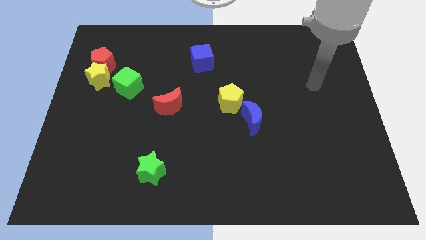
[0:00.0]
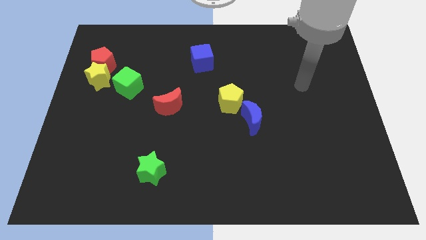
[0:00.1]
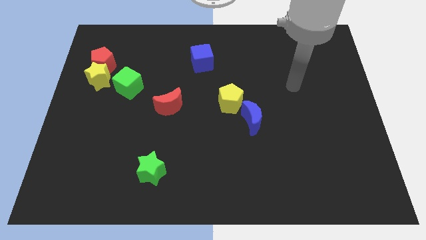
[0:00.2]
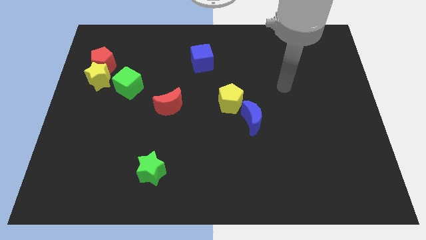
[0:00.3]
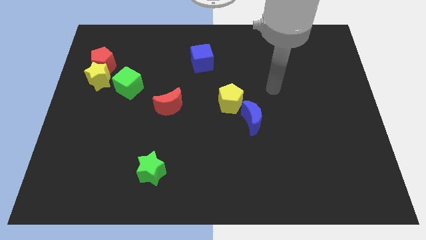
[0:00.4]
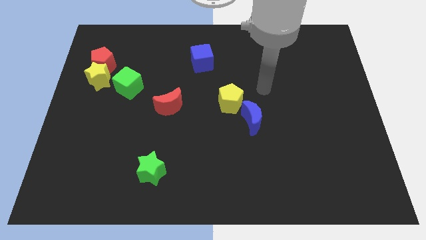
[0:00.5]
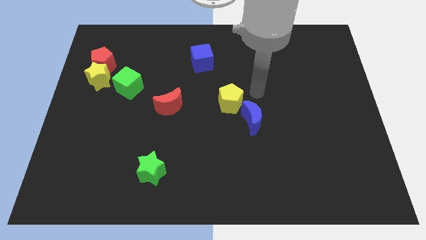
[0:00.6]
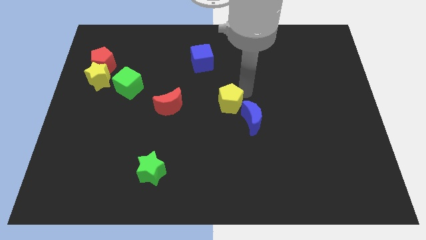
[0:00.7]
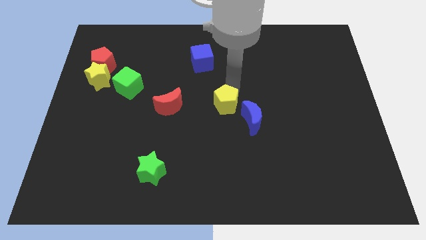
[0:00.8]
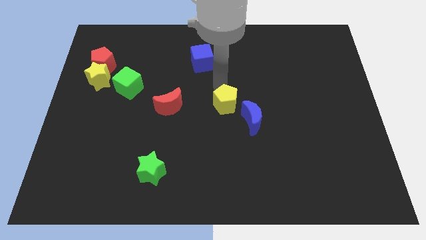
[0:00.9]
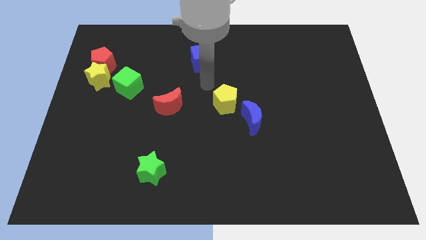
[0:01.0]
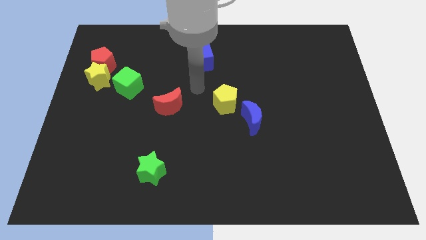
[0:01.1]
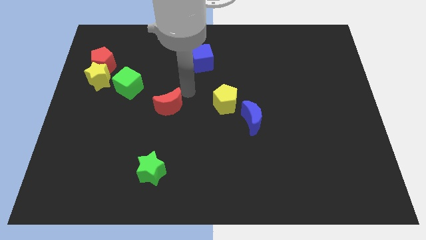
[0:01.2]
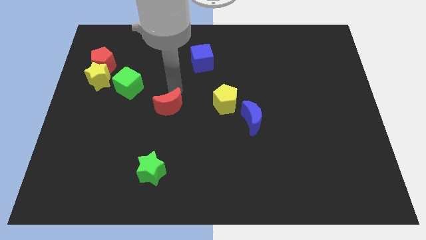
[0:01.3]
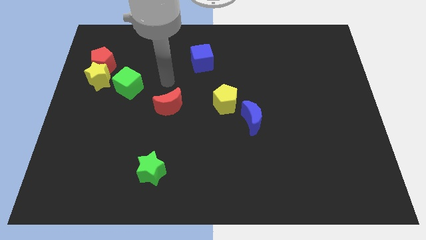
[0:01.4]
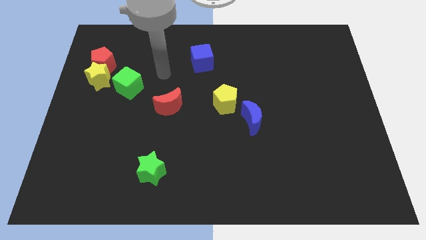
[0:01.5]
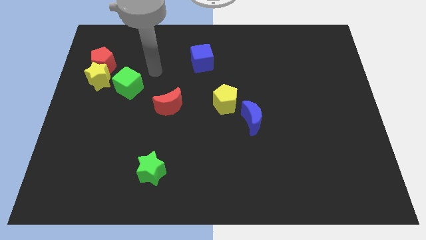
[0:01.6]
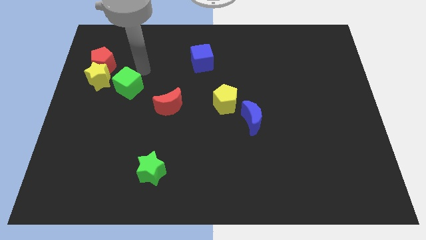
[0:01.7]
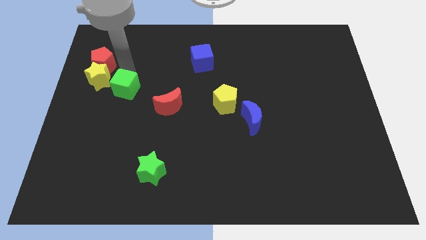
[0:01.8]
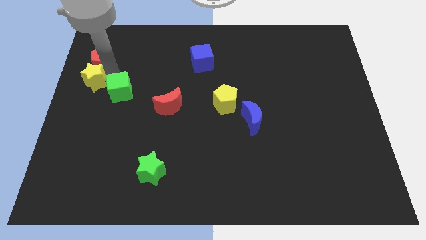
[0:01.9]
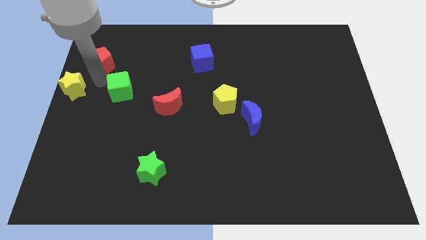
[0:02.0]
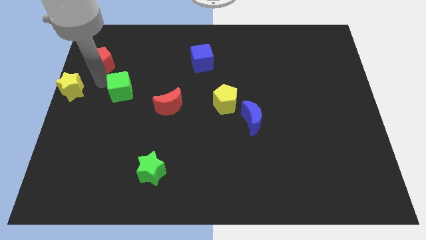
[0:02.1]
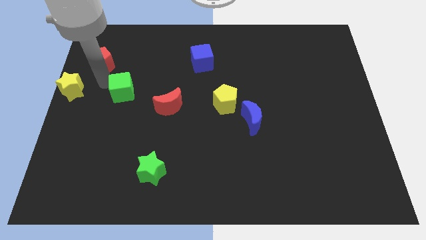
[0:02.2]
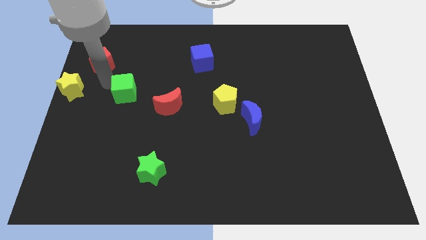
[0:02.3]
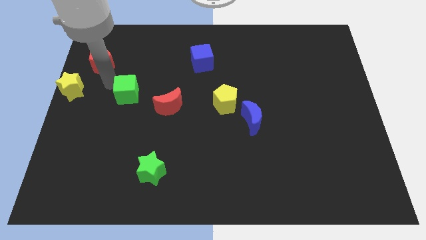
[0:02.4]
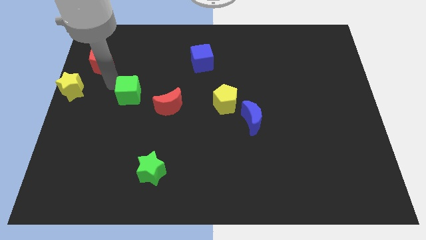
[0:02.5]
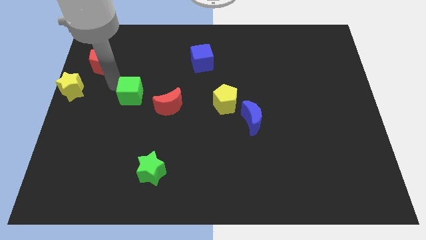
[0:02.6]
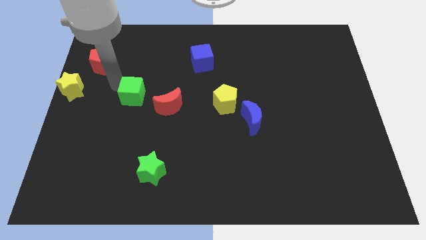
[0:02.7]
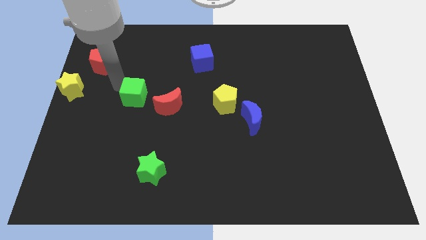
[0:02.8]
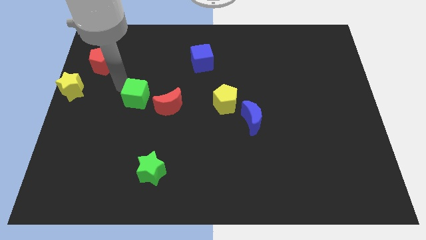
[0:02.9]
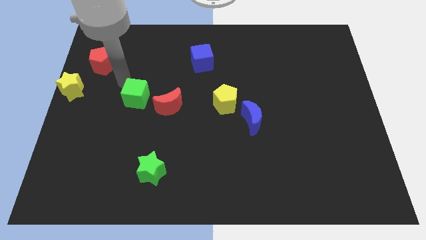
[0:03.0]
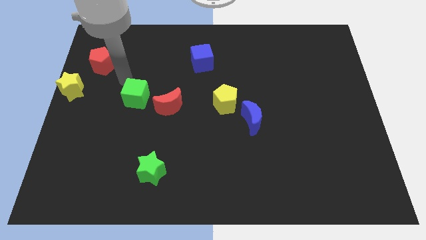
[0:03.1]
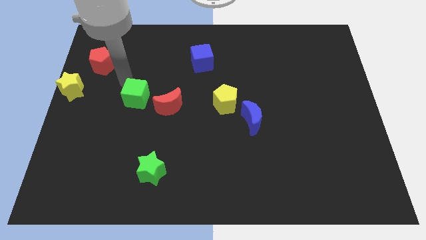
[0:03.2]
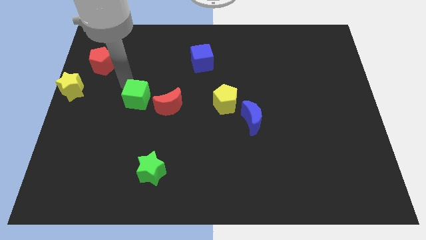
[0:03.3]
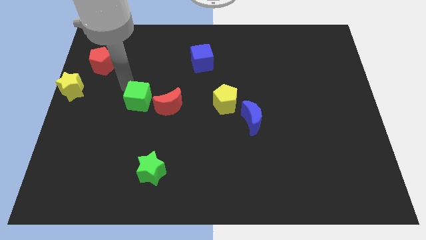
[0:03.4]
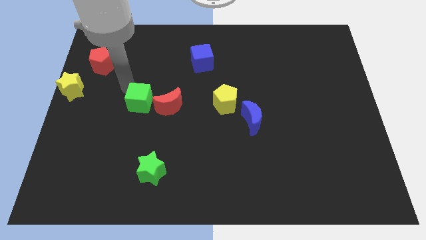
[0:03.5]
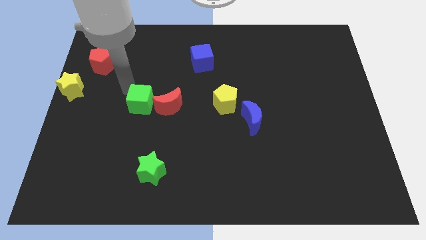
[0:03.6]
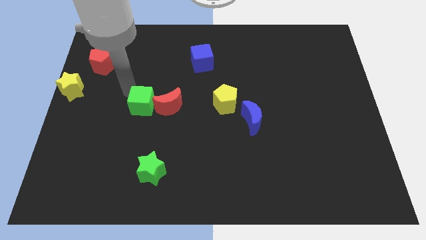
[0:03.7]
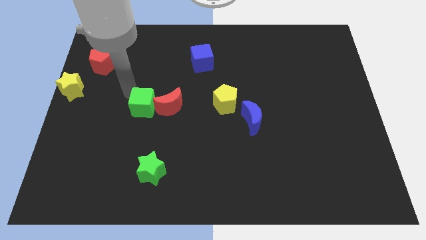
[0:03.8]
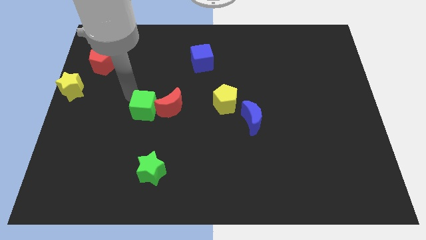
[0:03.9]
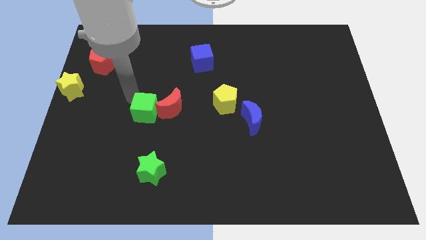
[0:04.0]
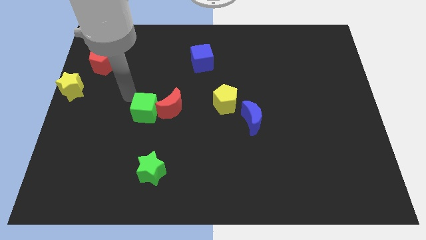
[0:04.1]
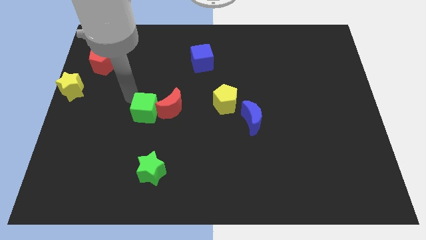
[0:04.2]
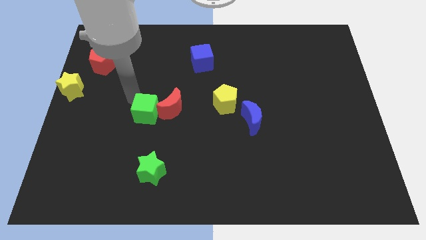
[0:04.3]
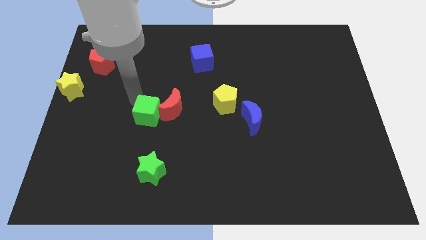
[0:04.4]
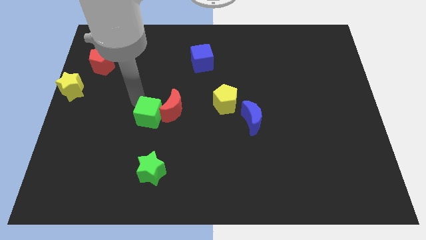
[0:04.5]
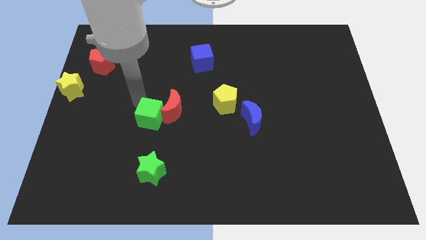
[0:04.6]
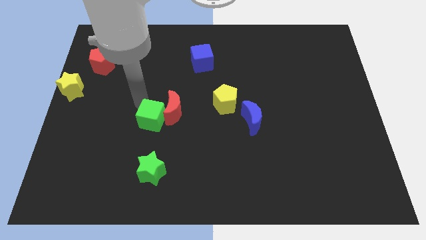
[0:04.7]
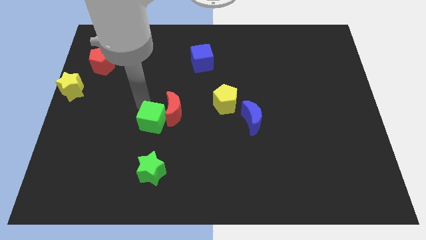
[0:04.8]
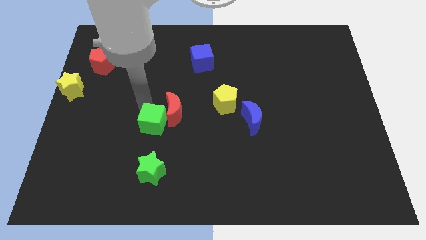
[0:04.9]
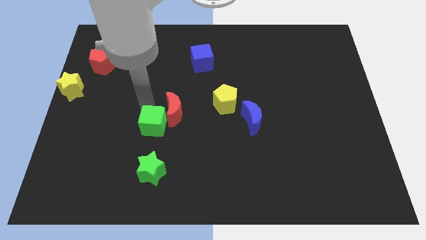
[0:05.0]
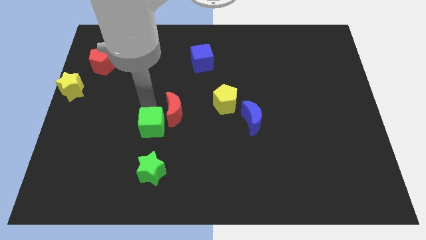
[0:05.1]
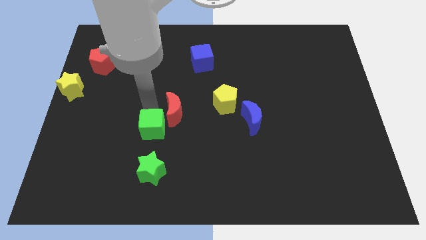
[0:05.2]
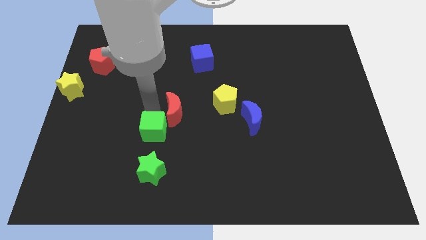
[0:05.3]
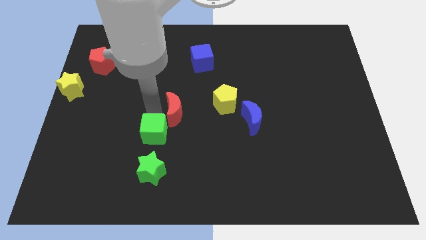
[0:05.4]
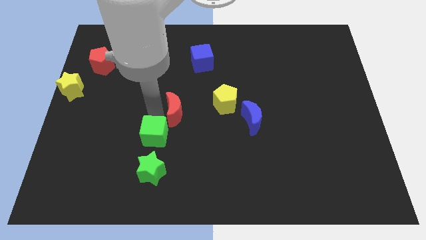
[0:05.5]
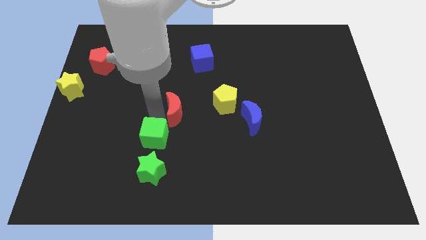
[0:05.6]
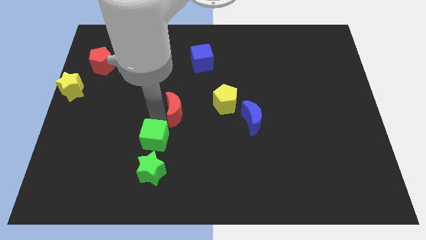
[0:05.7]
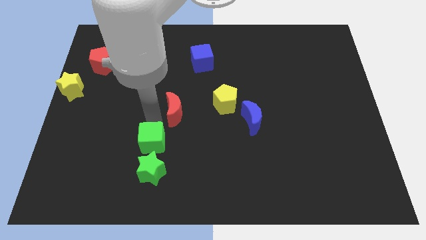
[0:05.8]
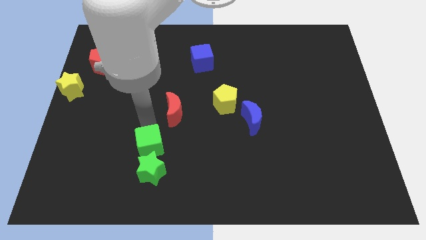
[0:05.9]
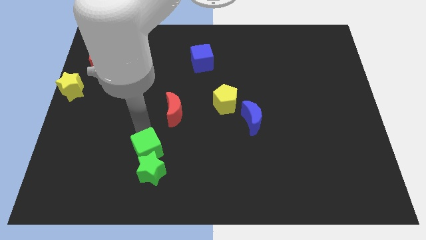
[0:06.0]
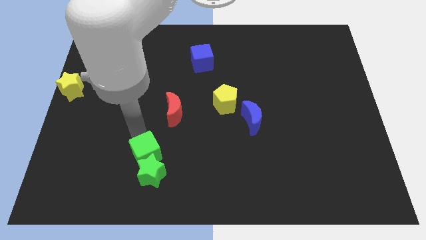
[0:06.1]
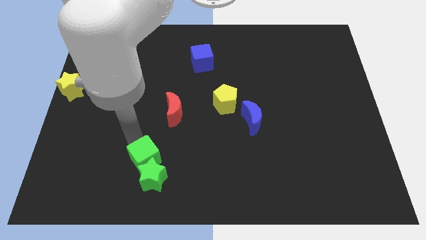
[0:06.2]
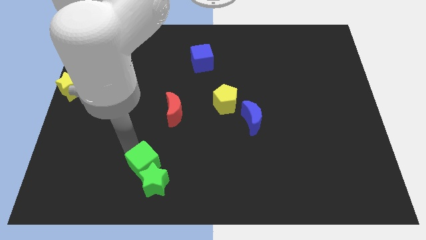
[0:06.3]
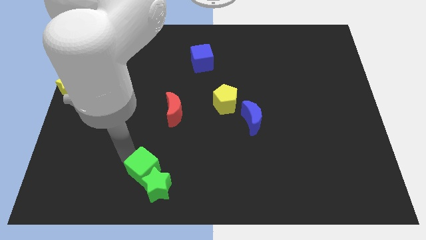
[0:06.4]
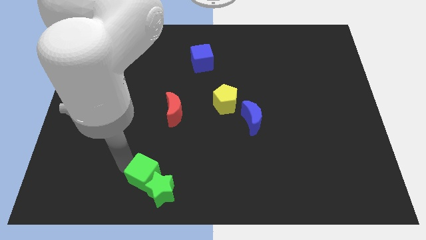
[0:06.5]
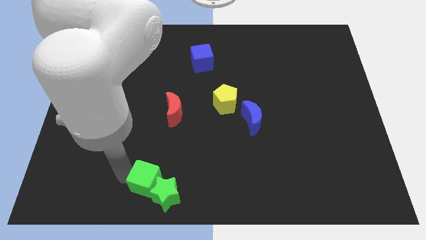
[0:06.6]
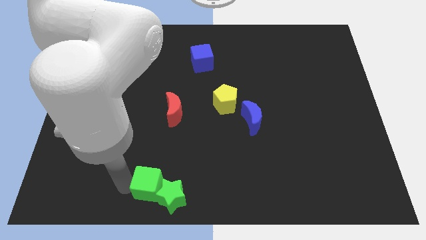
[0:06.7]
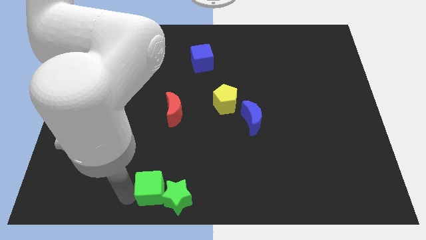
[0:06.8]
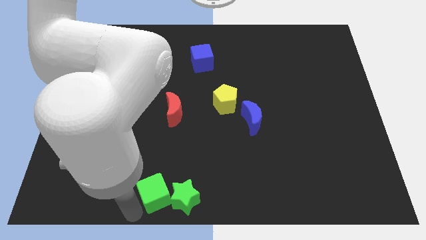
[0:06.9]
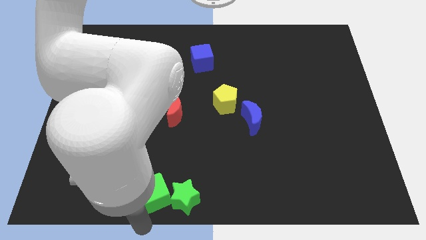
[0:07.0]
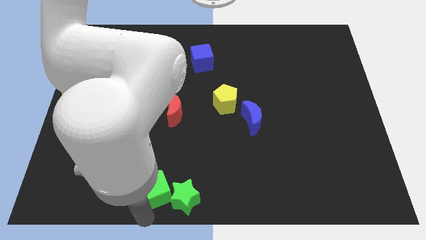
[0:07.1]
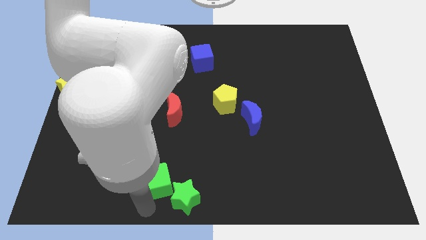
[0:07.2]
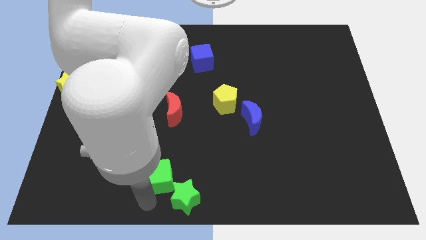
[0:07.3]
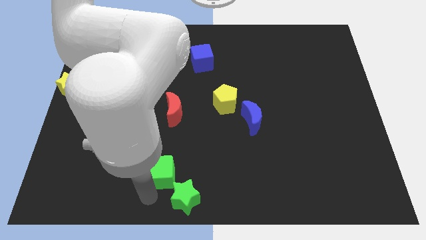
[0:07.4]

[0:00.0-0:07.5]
push the green cube down and right diagonally

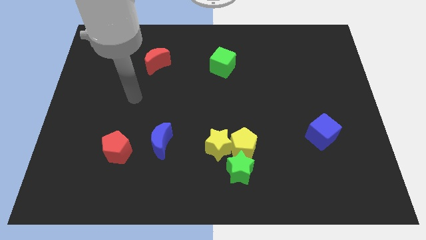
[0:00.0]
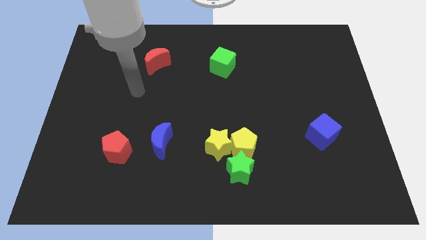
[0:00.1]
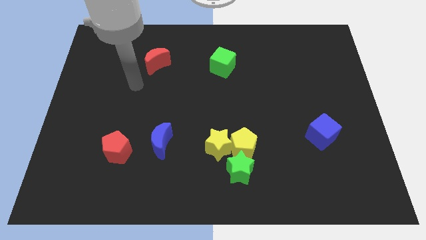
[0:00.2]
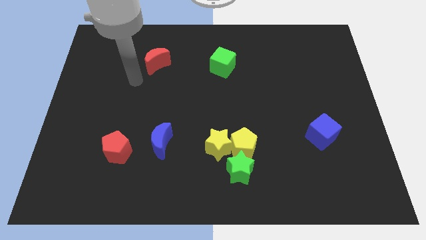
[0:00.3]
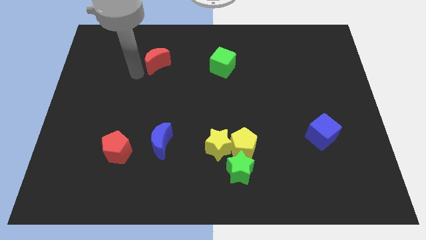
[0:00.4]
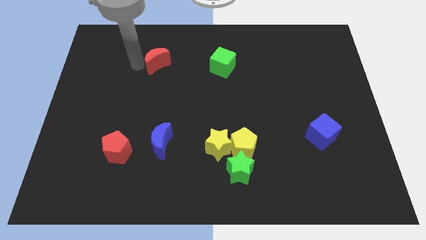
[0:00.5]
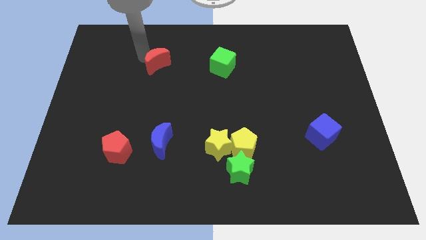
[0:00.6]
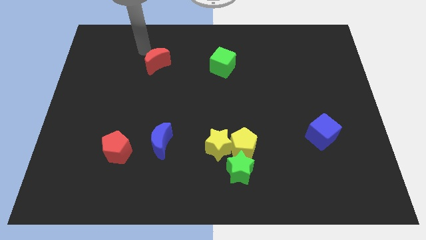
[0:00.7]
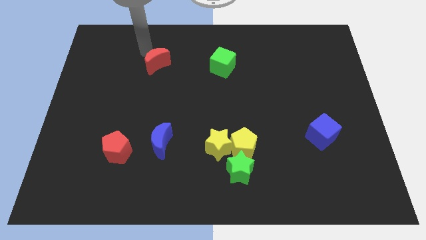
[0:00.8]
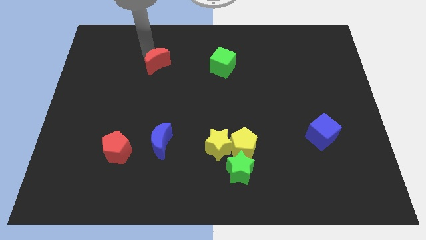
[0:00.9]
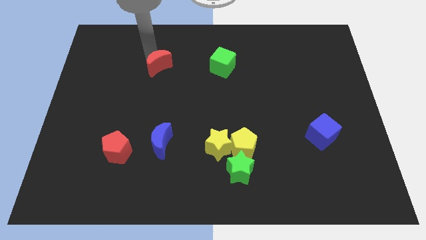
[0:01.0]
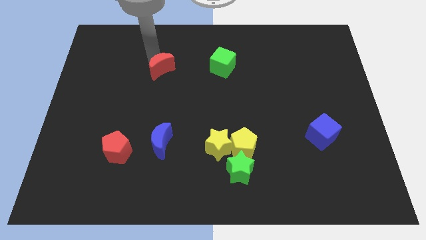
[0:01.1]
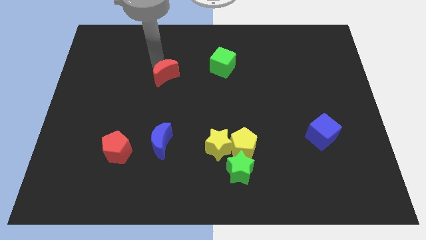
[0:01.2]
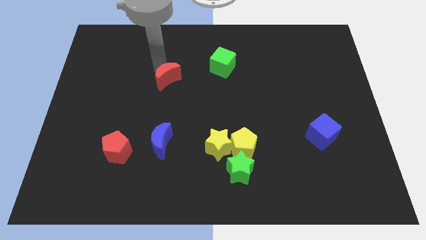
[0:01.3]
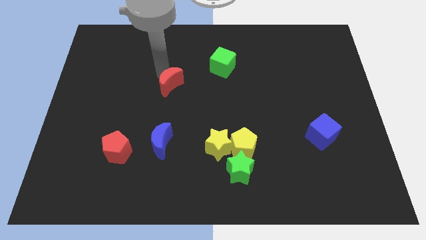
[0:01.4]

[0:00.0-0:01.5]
move the red moon a bit downwards and right diagonally
